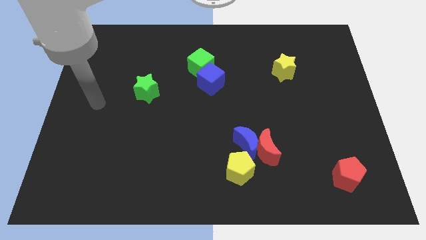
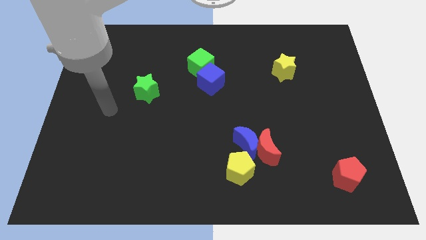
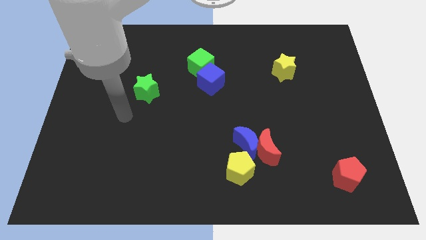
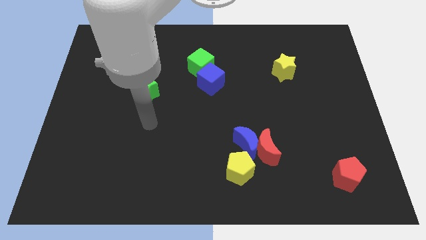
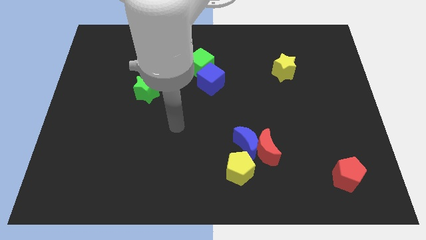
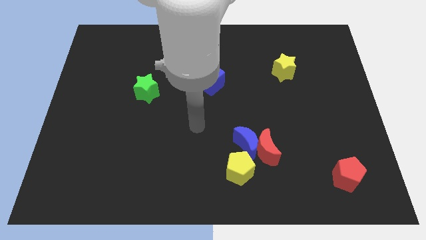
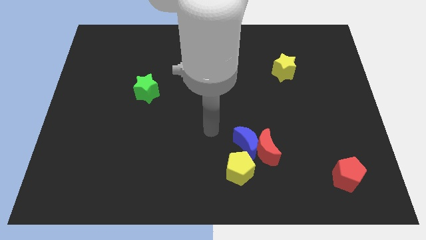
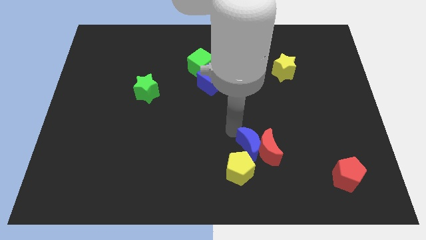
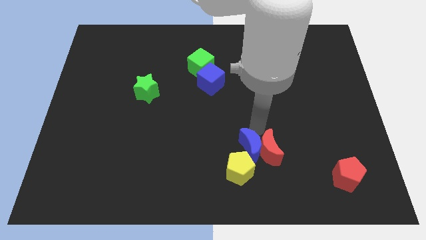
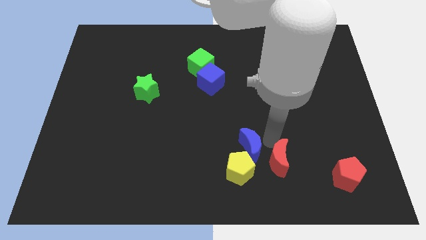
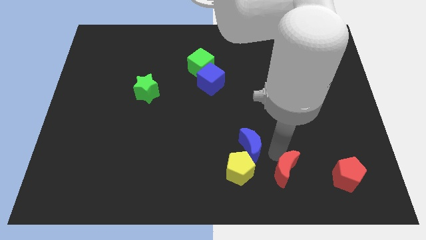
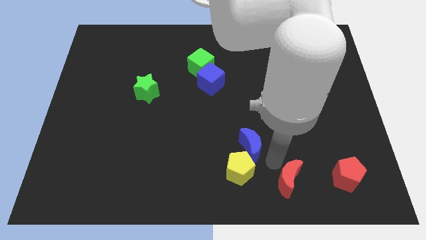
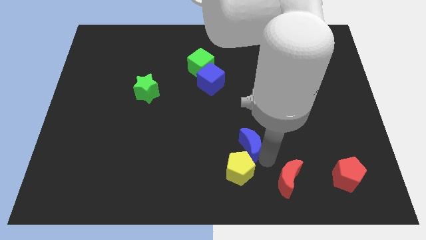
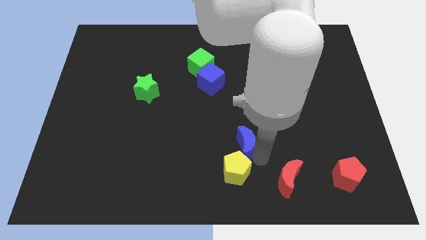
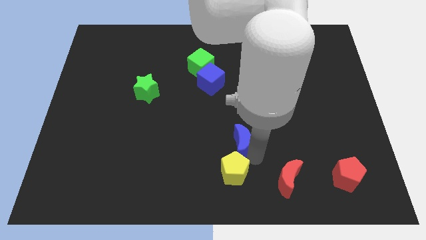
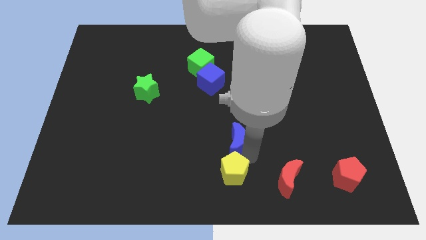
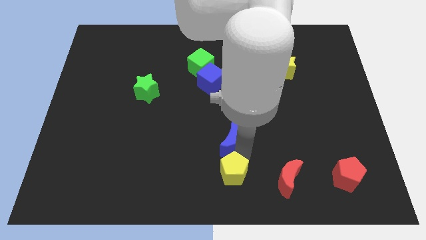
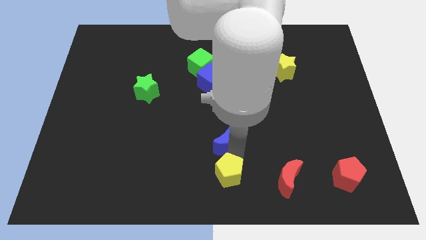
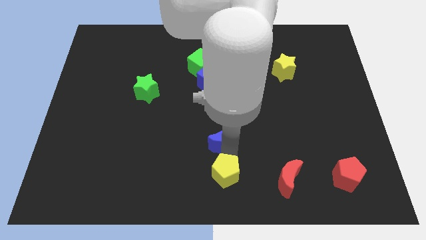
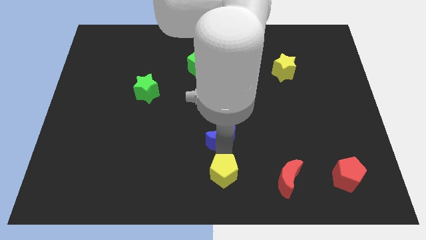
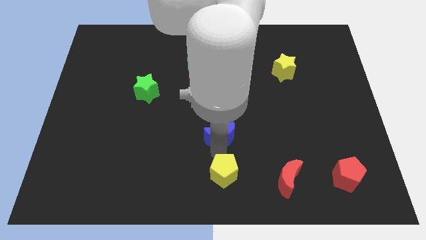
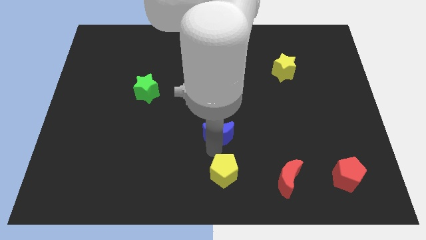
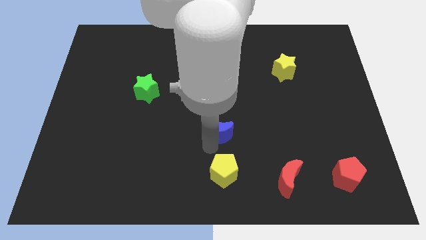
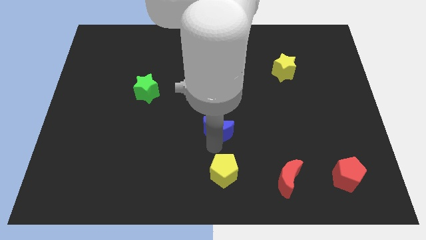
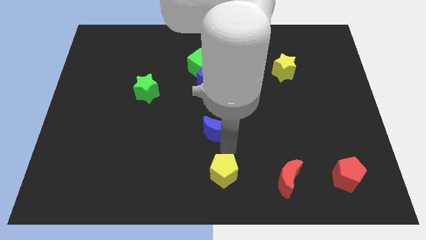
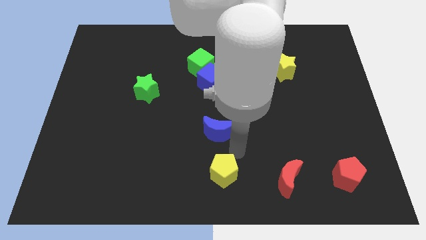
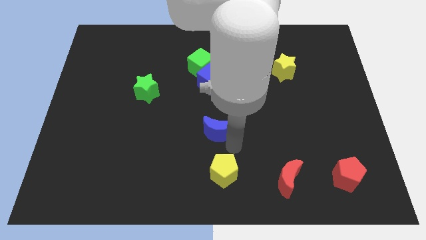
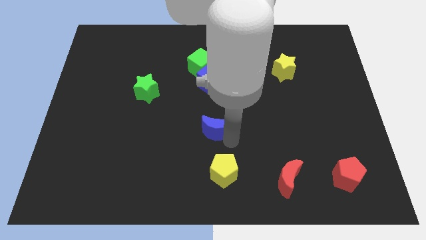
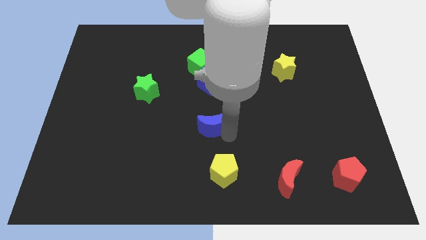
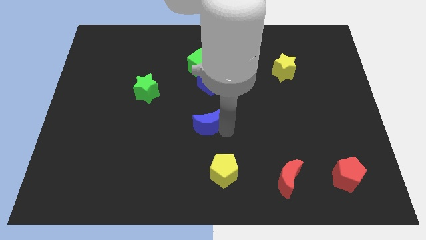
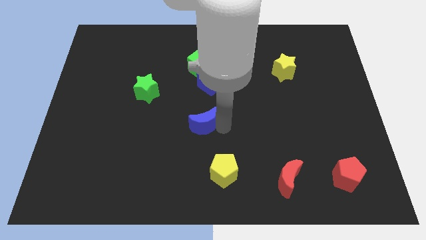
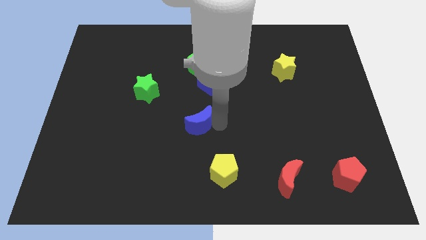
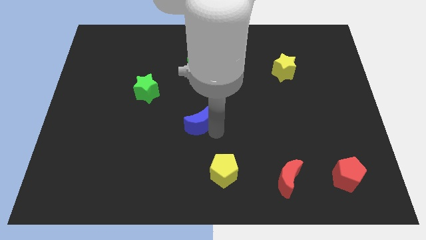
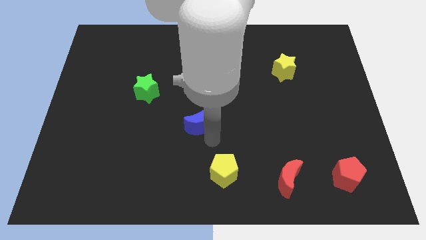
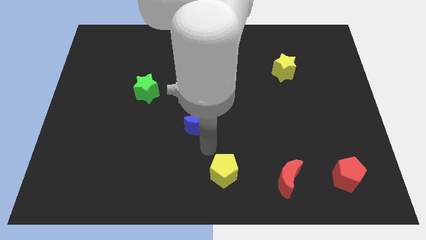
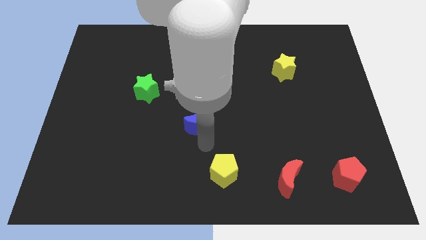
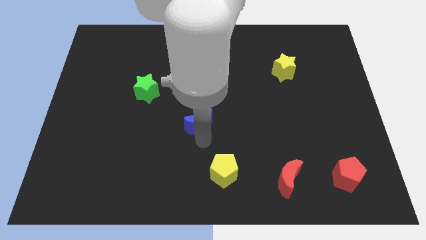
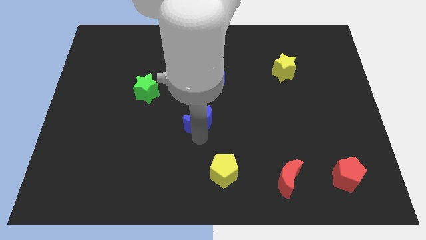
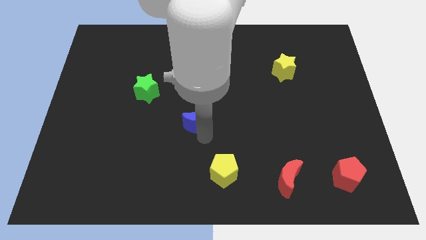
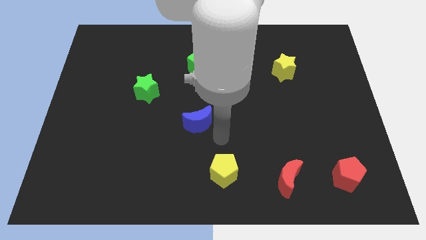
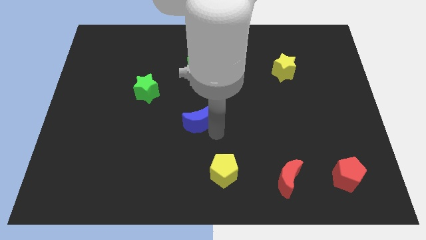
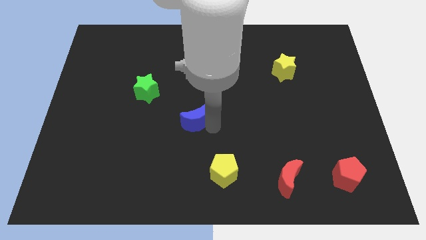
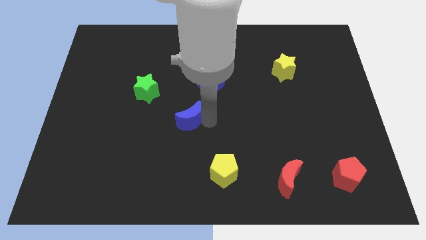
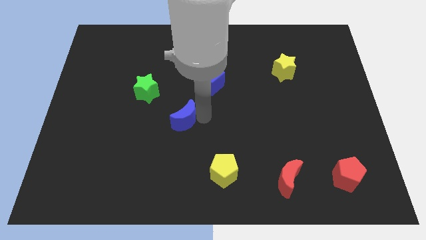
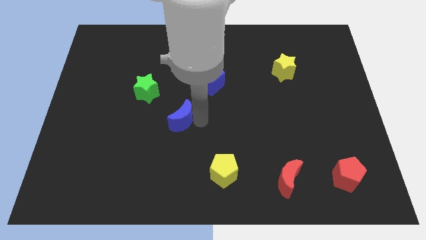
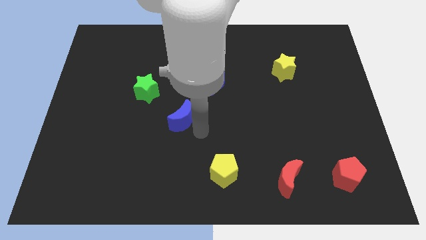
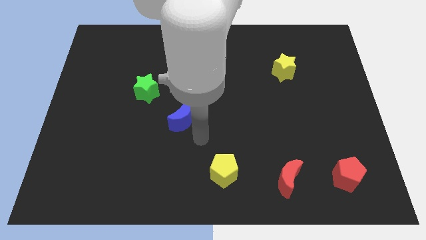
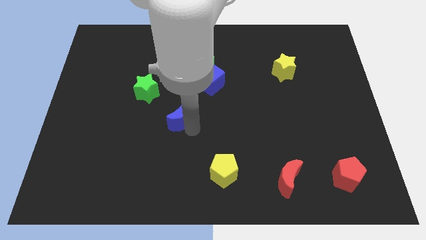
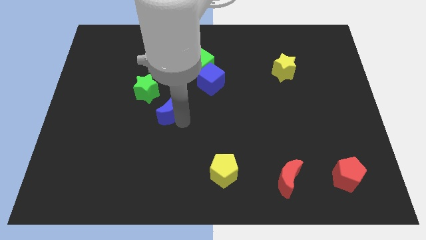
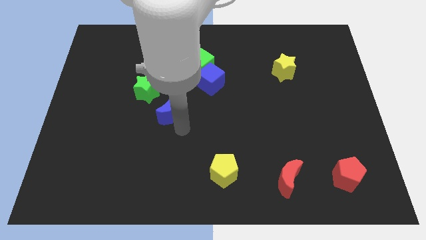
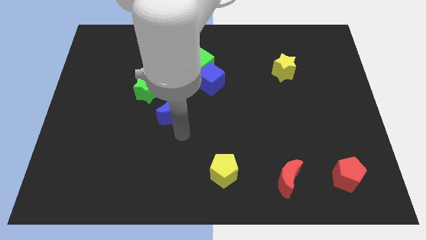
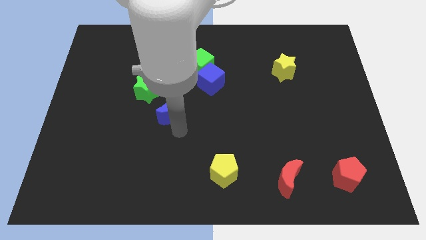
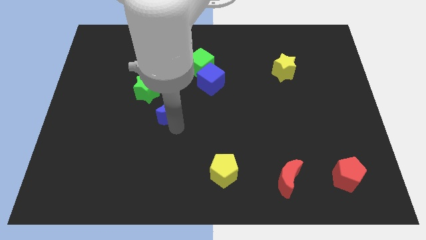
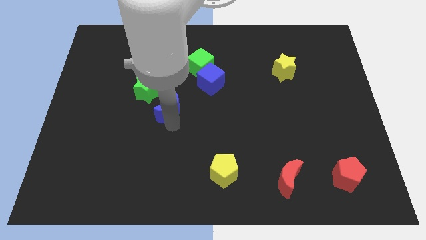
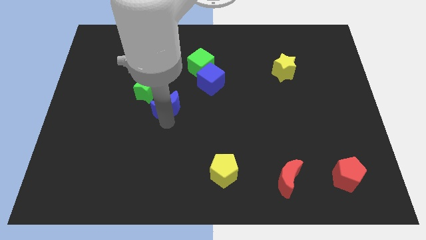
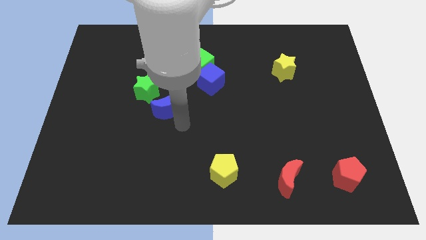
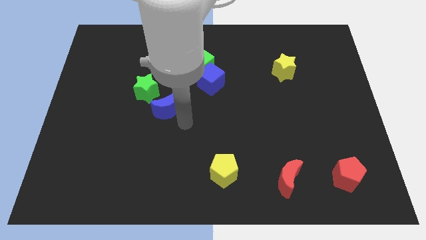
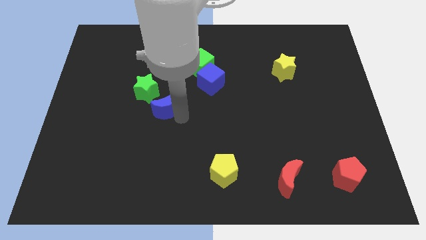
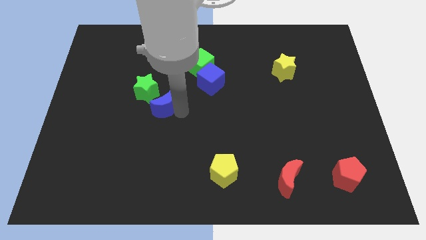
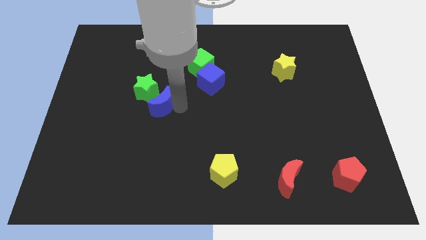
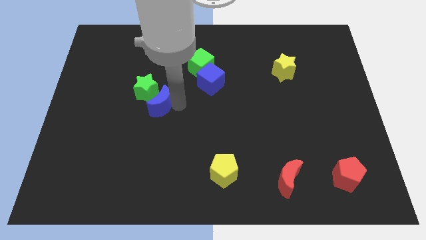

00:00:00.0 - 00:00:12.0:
move the blue moon close to the green star

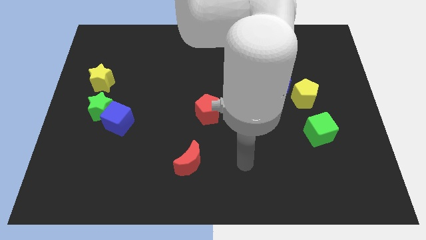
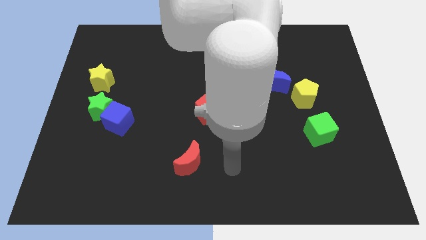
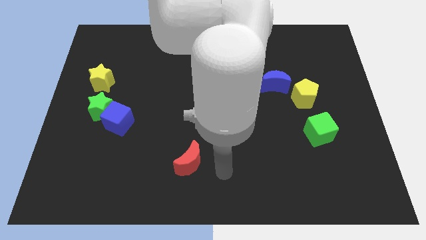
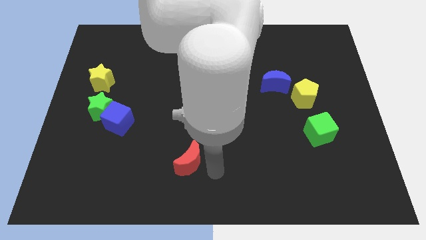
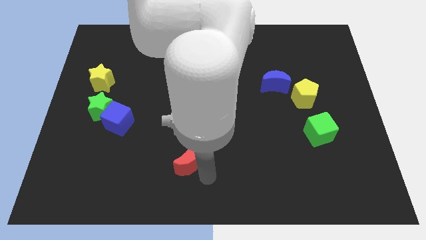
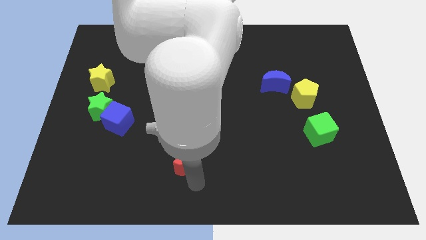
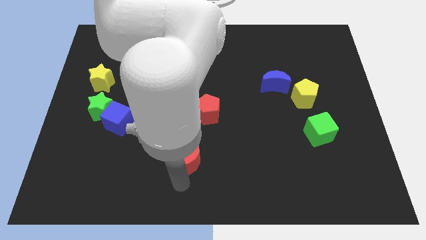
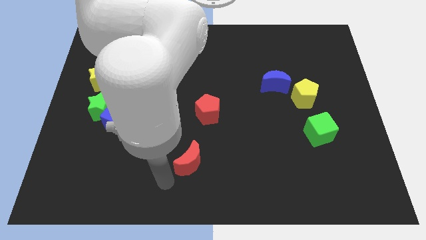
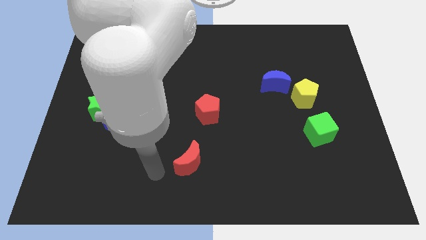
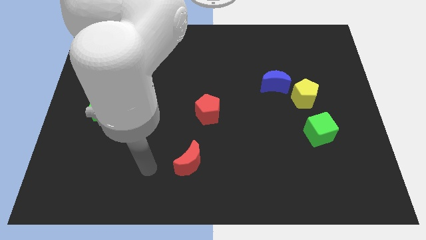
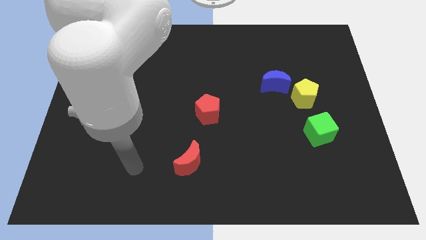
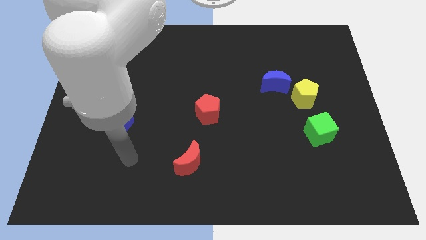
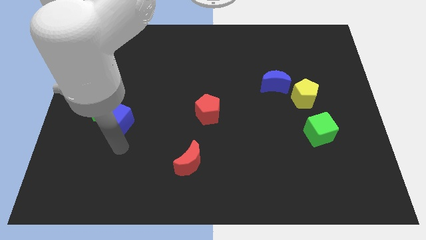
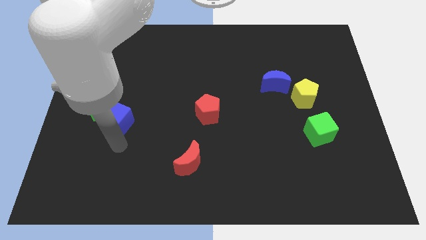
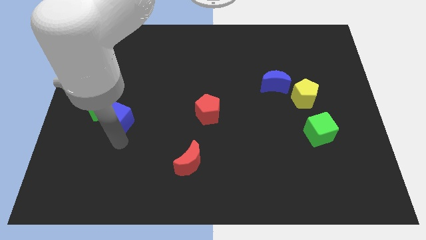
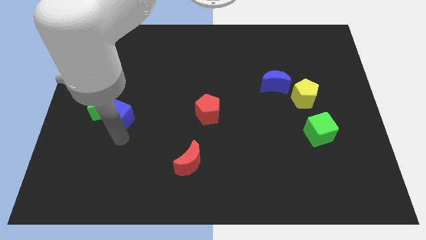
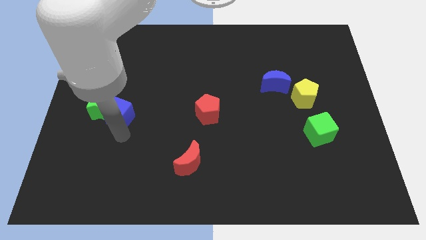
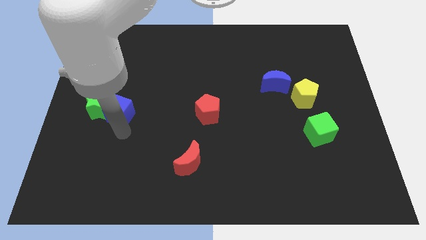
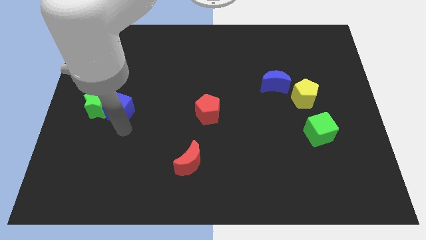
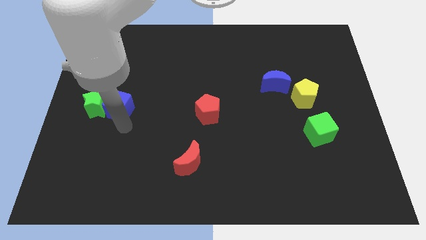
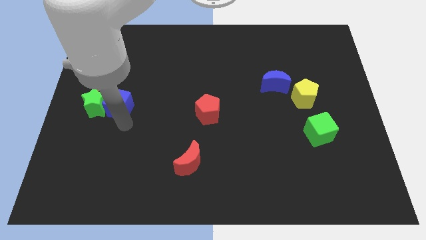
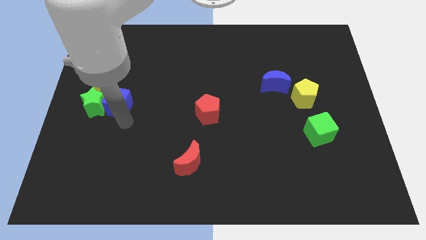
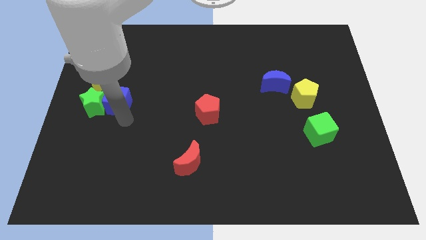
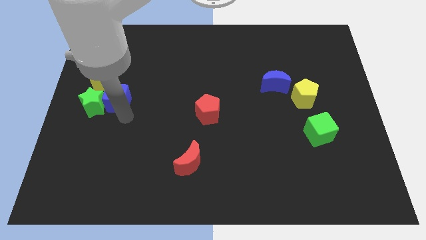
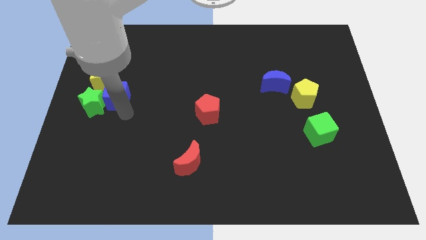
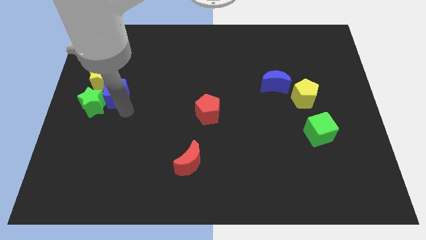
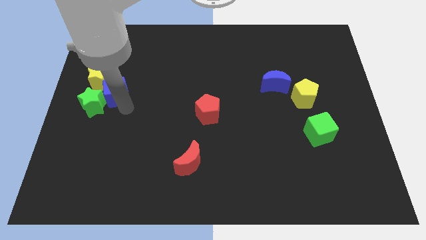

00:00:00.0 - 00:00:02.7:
push the blue cube towards the yellow star
